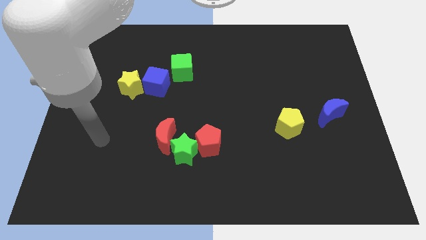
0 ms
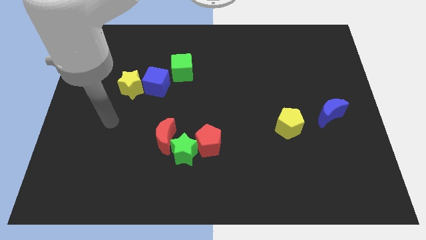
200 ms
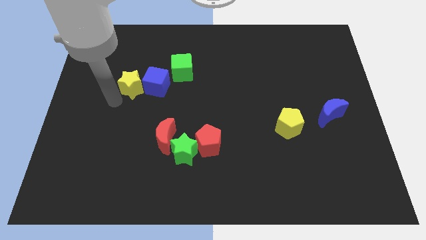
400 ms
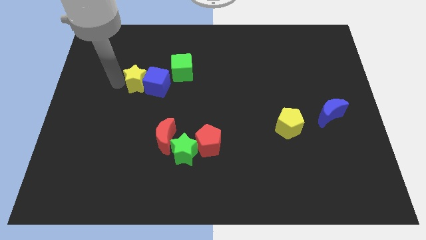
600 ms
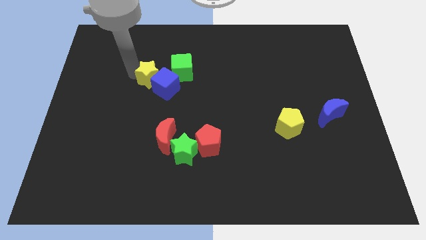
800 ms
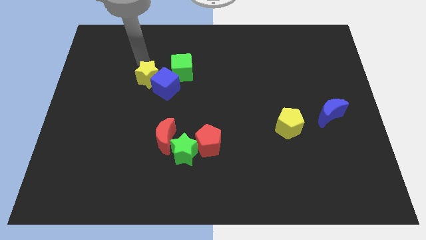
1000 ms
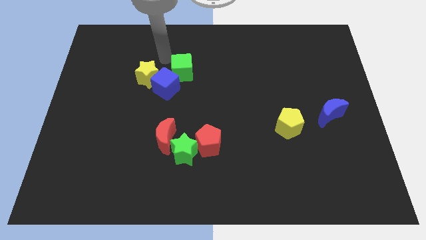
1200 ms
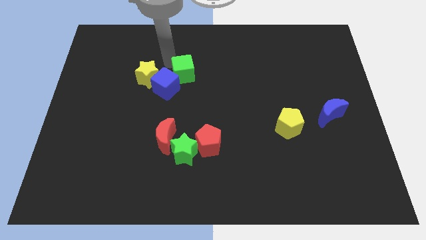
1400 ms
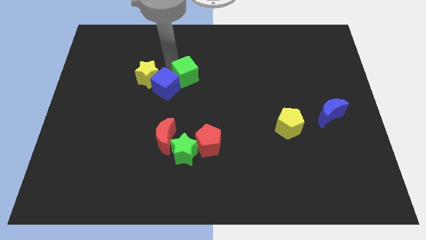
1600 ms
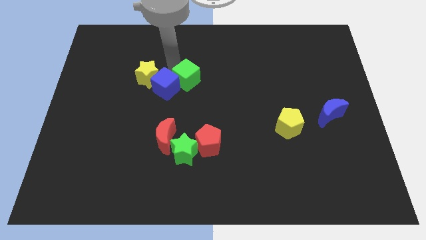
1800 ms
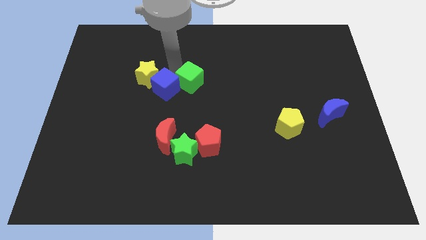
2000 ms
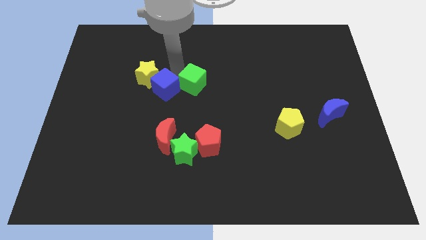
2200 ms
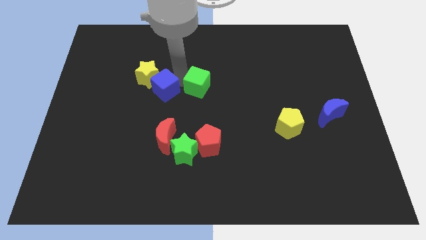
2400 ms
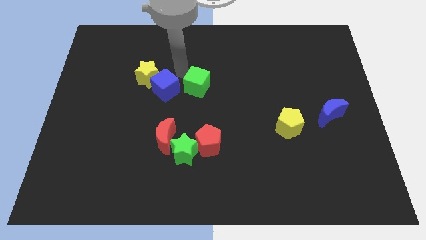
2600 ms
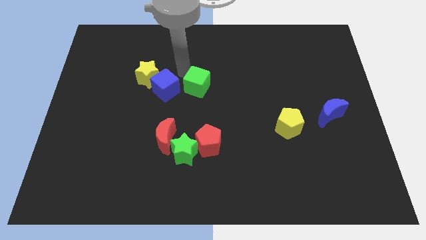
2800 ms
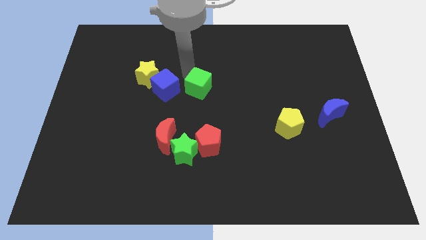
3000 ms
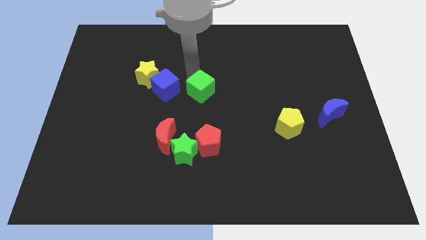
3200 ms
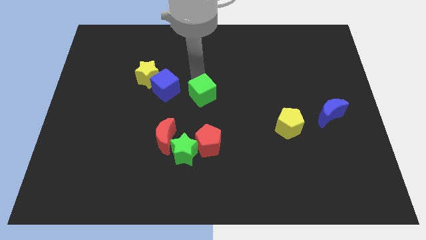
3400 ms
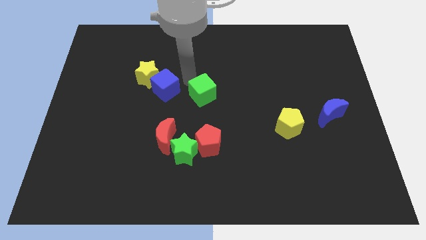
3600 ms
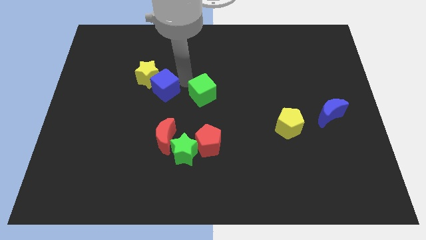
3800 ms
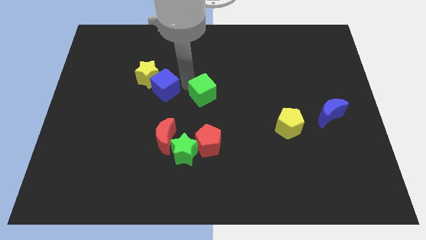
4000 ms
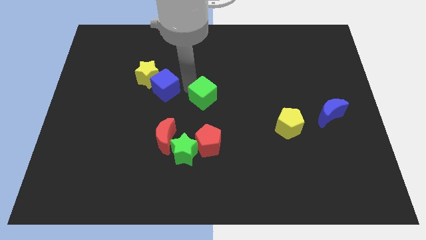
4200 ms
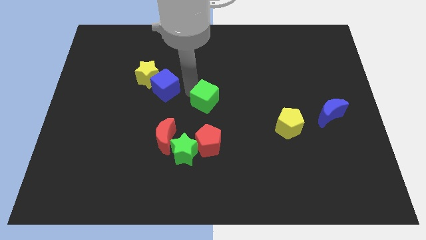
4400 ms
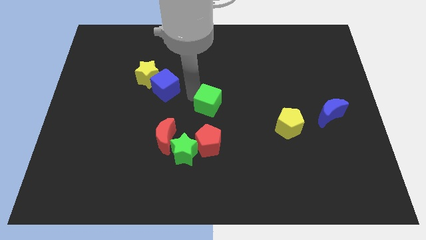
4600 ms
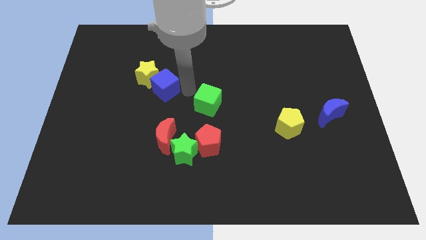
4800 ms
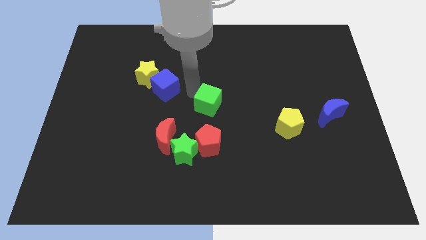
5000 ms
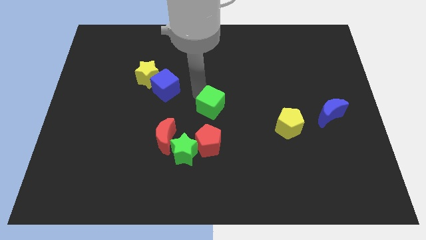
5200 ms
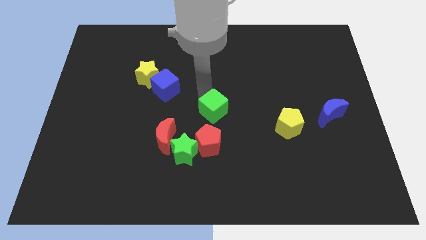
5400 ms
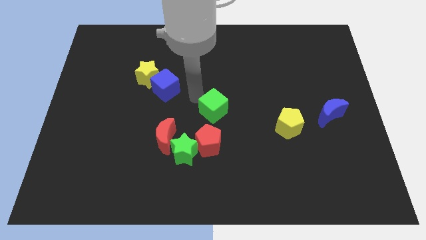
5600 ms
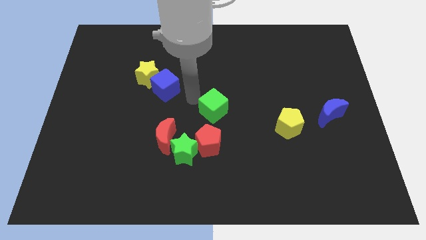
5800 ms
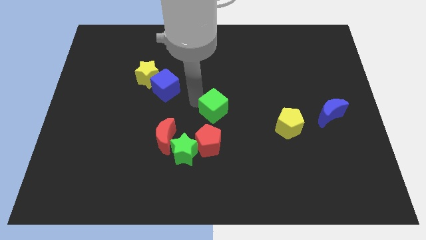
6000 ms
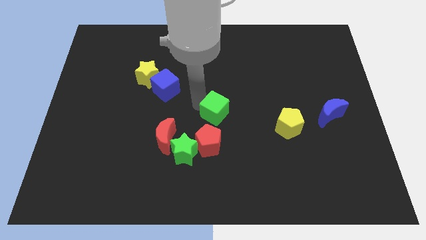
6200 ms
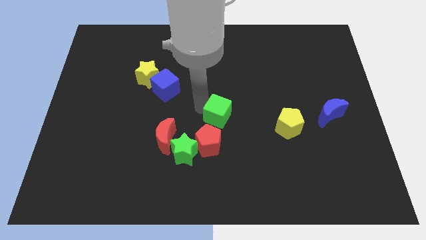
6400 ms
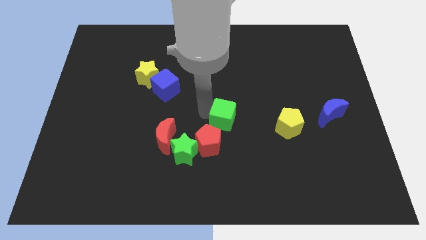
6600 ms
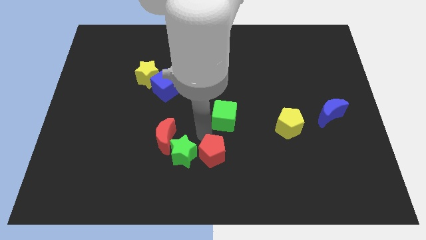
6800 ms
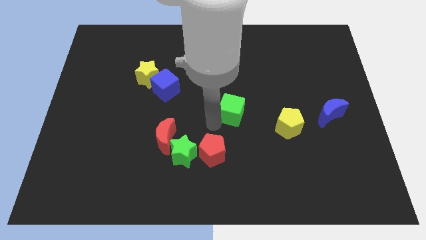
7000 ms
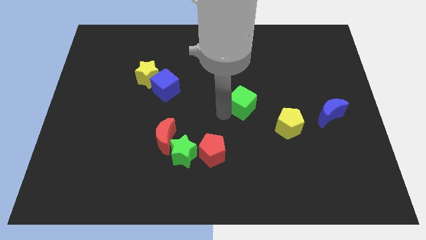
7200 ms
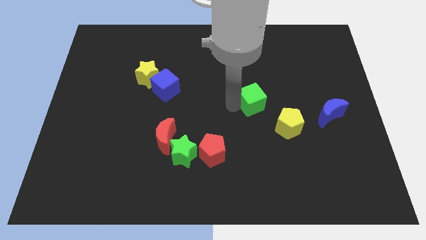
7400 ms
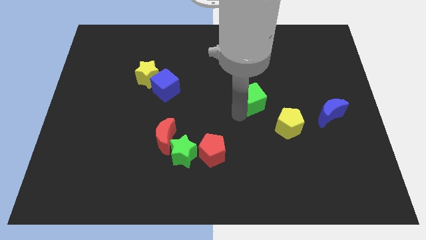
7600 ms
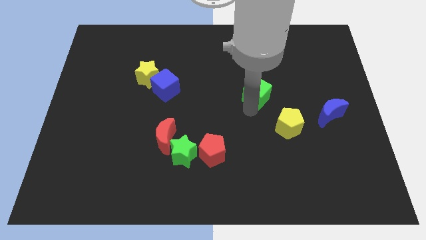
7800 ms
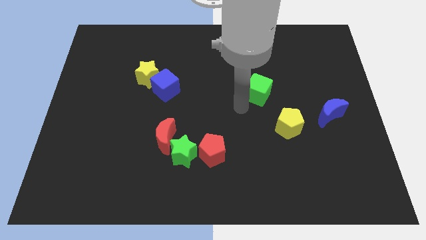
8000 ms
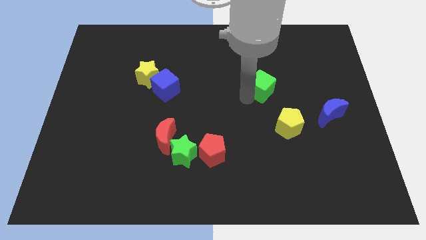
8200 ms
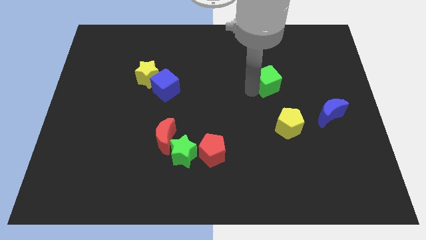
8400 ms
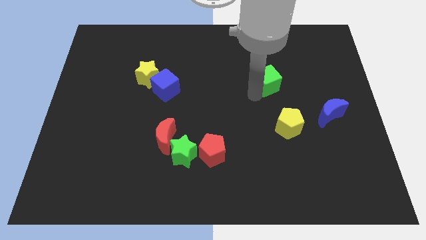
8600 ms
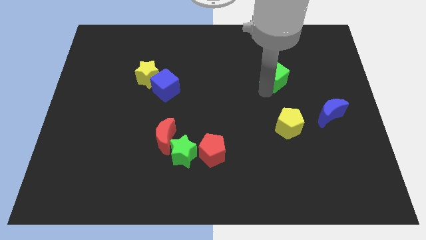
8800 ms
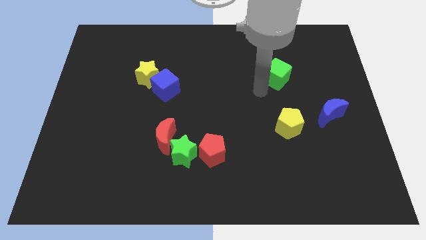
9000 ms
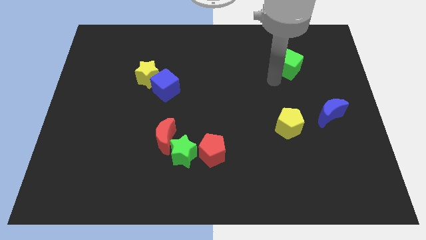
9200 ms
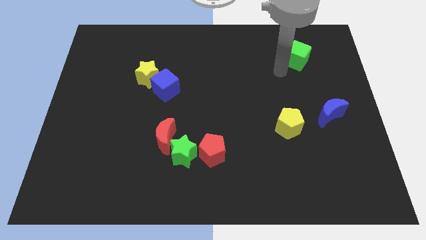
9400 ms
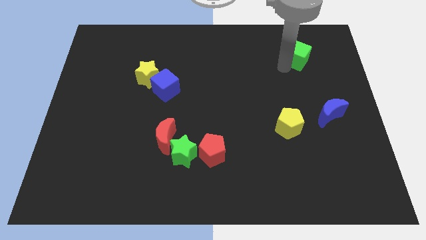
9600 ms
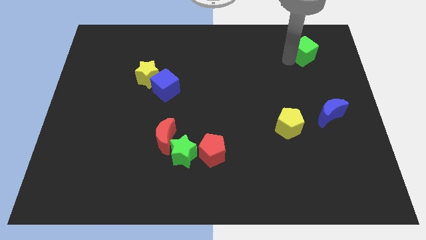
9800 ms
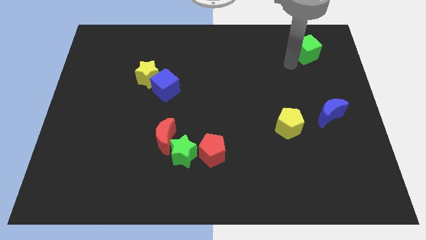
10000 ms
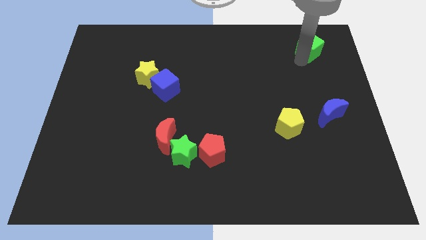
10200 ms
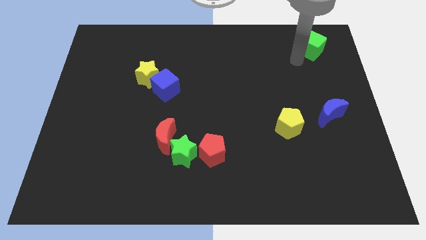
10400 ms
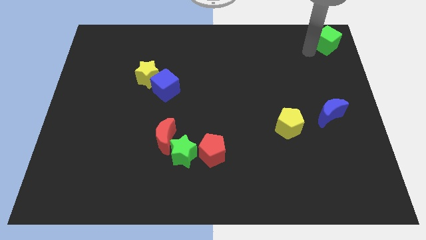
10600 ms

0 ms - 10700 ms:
push the green cube to the upper right corner

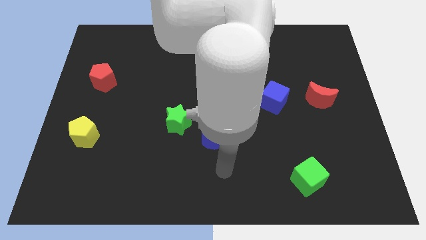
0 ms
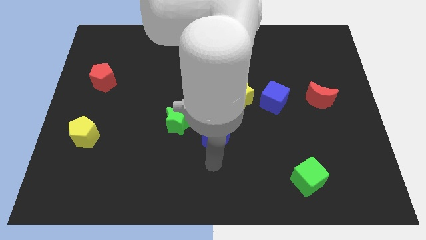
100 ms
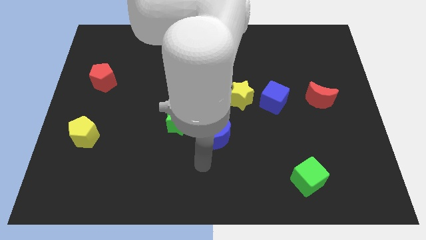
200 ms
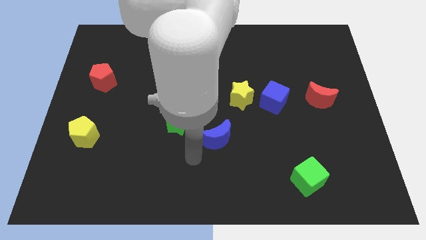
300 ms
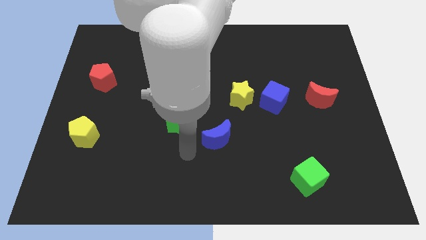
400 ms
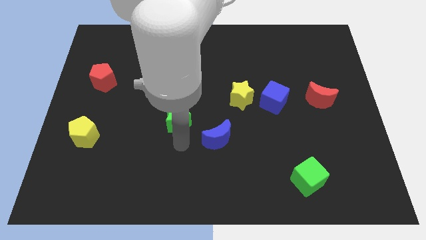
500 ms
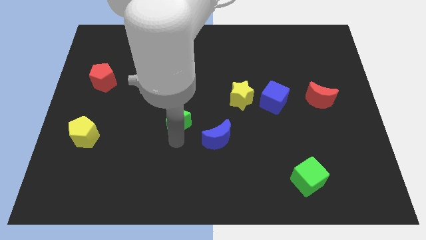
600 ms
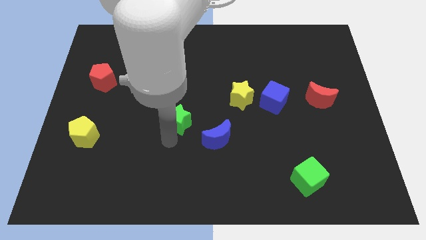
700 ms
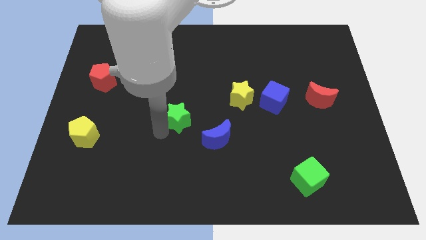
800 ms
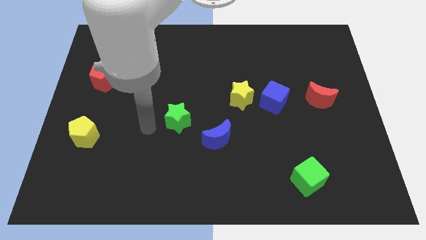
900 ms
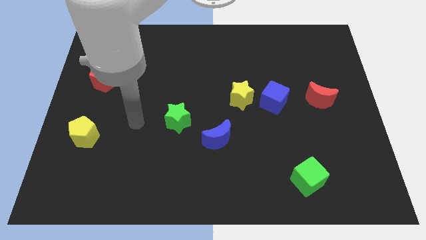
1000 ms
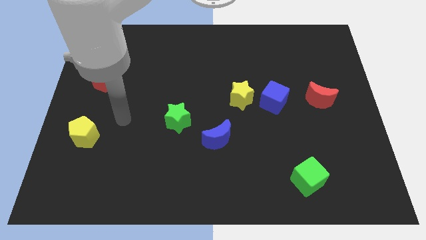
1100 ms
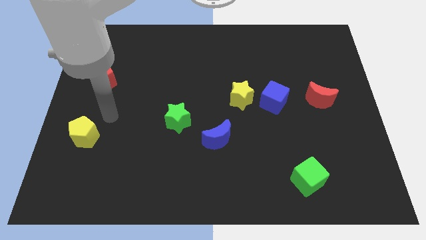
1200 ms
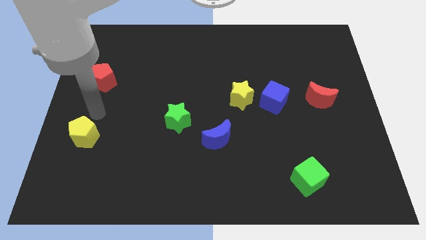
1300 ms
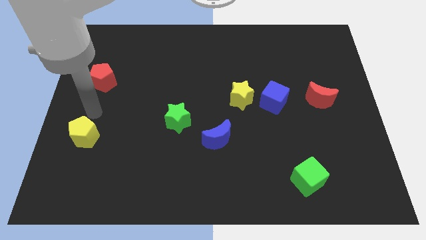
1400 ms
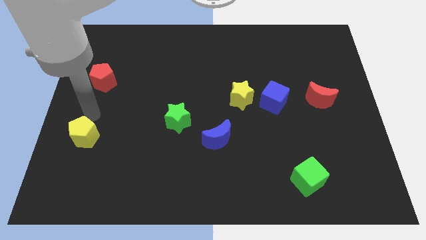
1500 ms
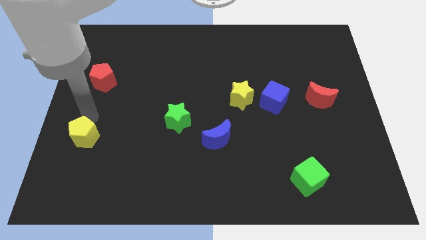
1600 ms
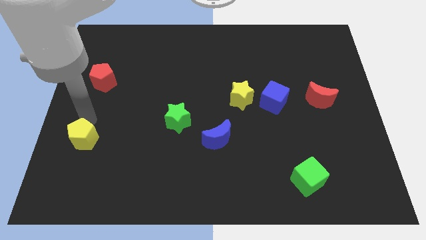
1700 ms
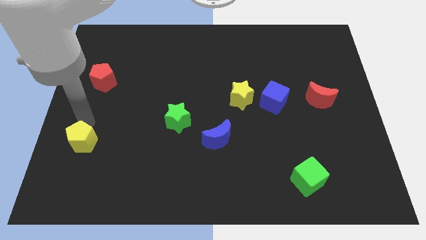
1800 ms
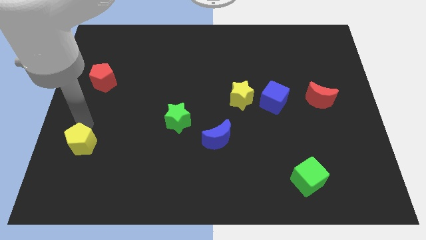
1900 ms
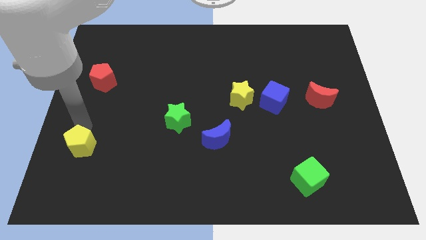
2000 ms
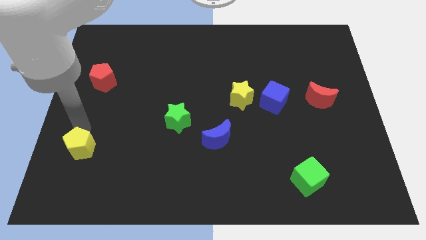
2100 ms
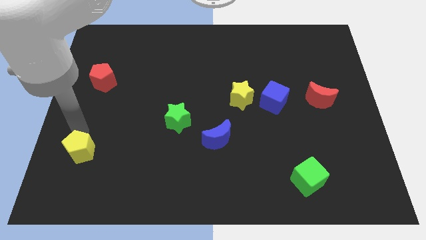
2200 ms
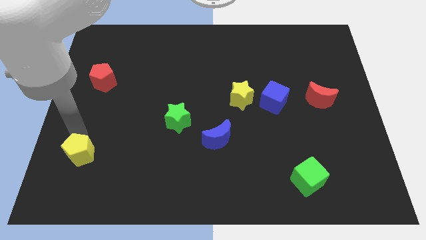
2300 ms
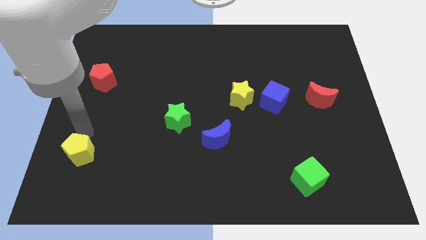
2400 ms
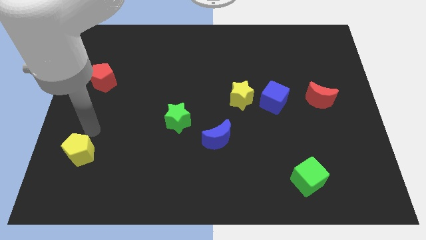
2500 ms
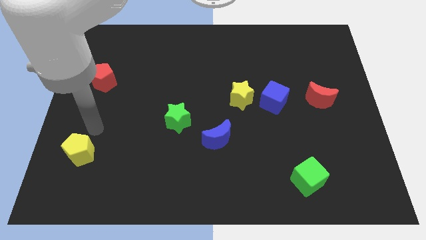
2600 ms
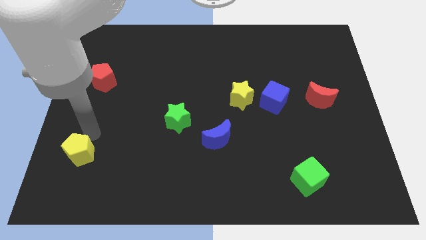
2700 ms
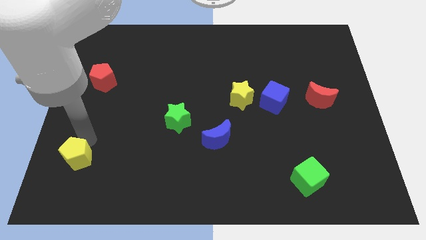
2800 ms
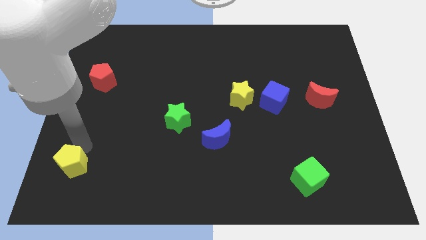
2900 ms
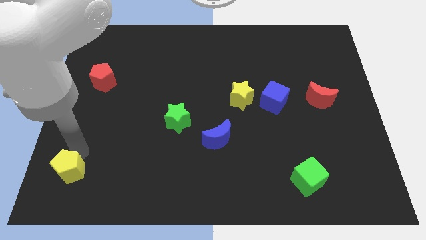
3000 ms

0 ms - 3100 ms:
push the yellow pentagon to the bottom left corner
